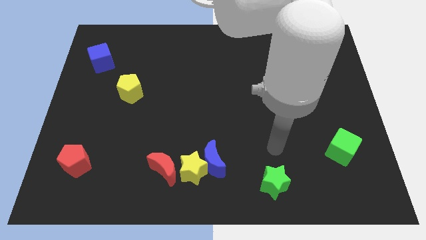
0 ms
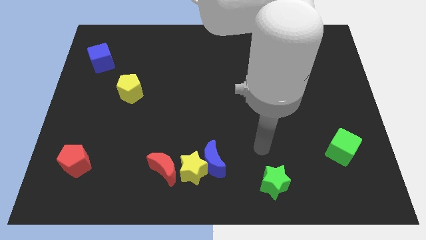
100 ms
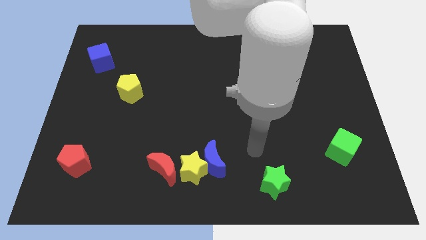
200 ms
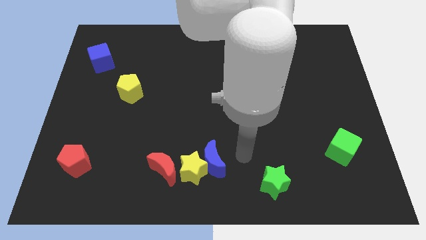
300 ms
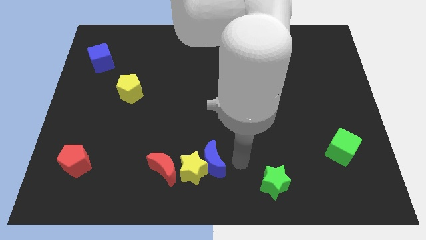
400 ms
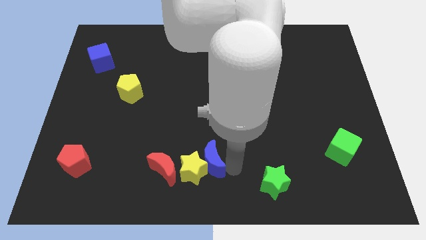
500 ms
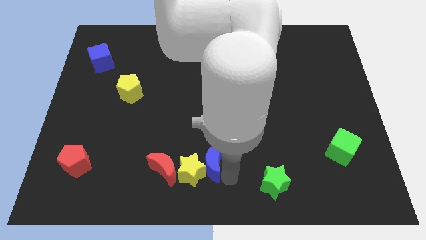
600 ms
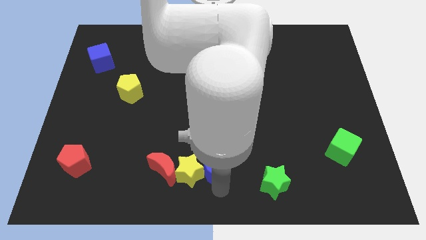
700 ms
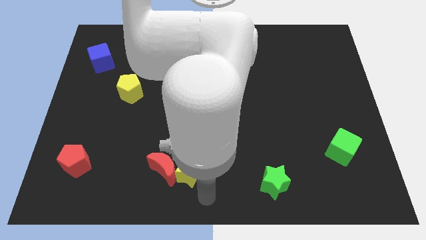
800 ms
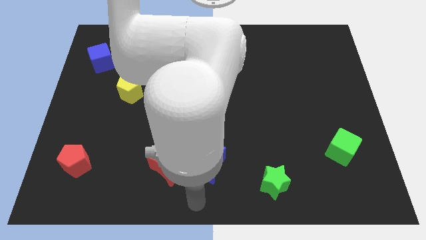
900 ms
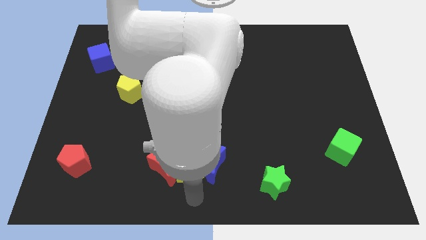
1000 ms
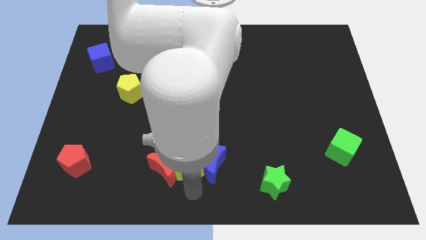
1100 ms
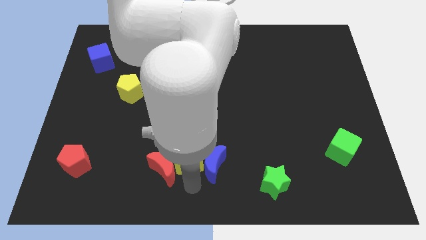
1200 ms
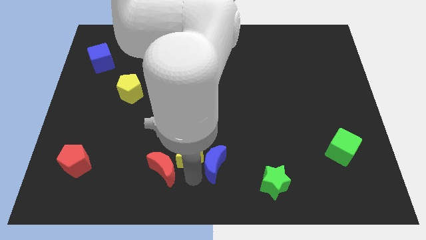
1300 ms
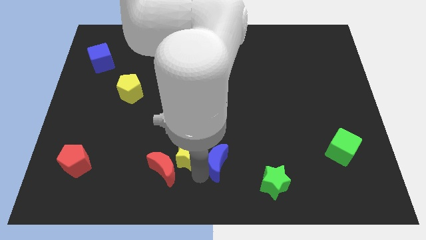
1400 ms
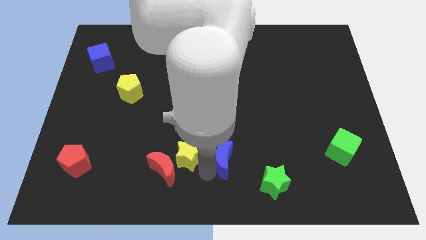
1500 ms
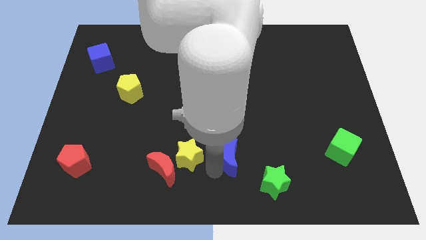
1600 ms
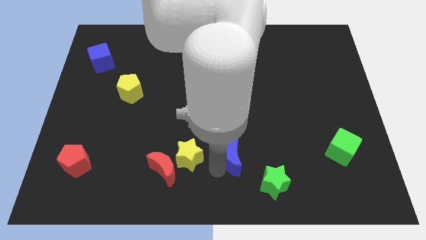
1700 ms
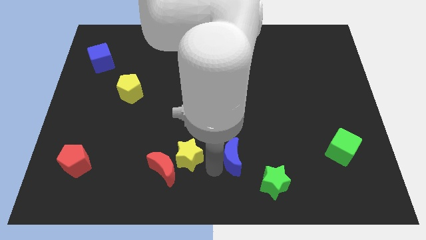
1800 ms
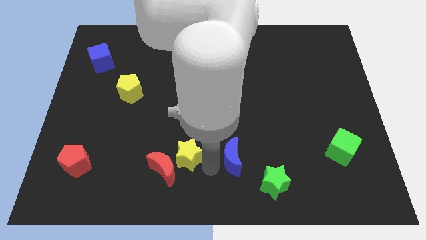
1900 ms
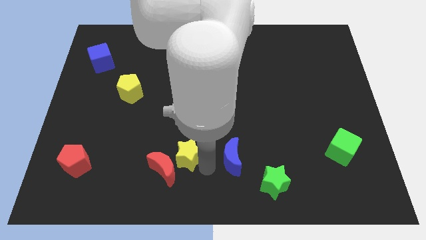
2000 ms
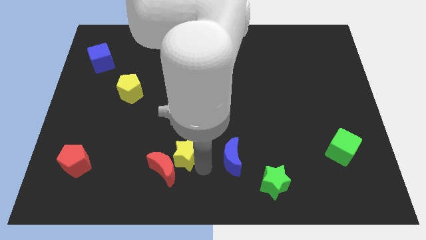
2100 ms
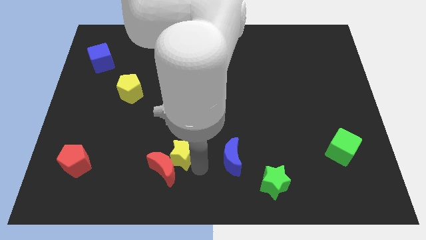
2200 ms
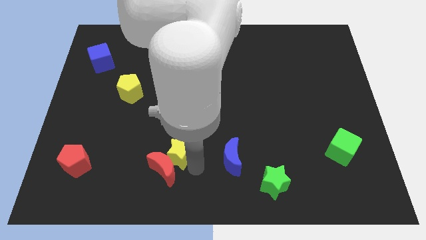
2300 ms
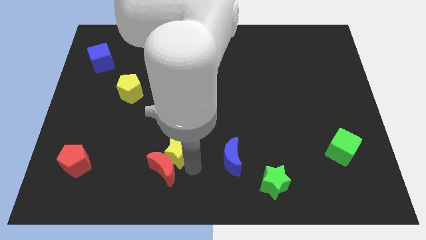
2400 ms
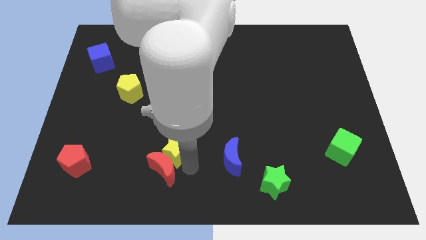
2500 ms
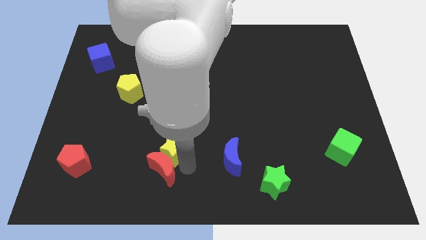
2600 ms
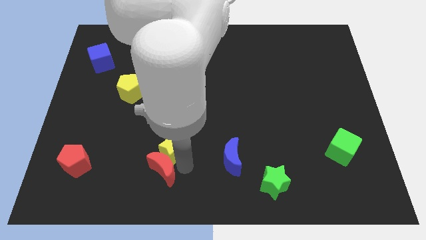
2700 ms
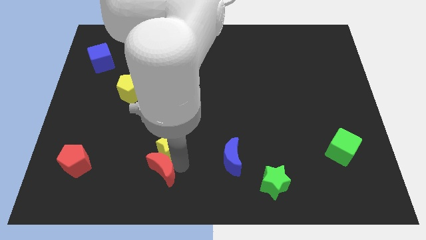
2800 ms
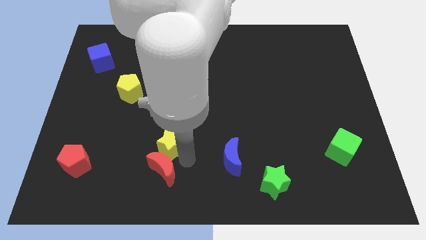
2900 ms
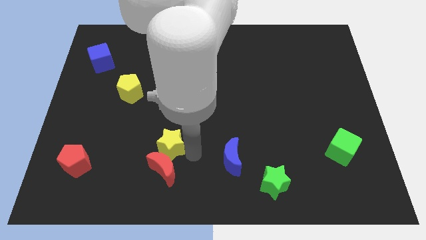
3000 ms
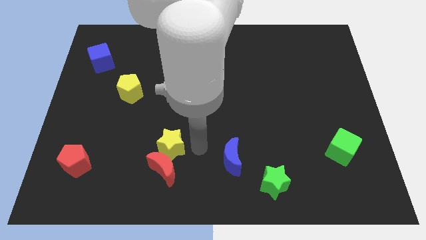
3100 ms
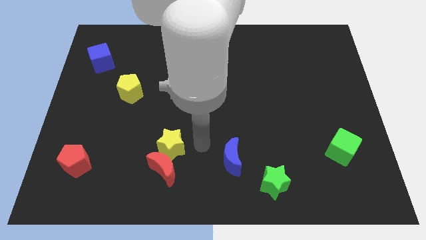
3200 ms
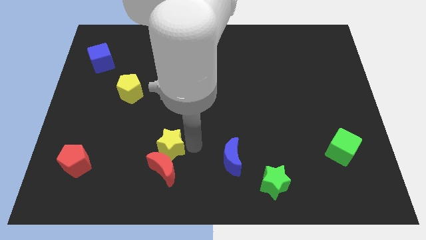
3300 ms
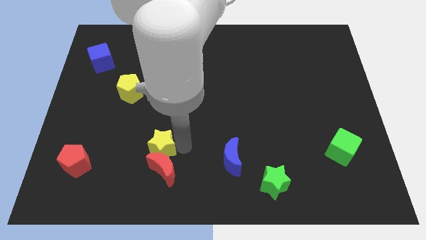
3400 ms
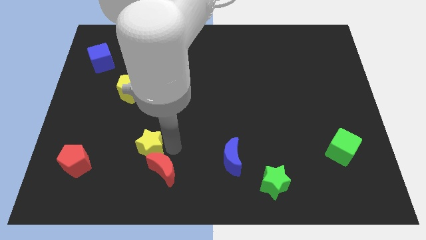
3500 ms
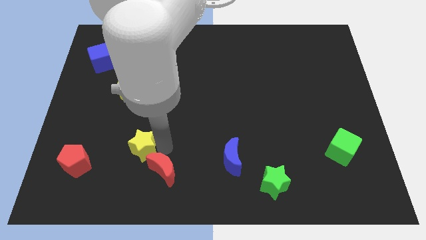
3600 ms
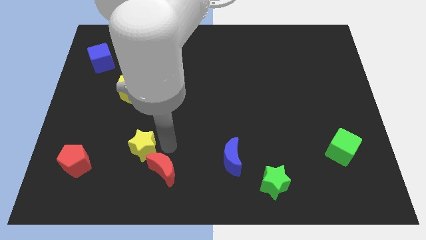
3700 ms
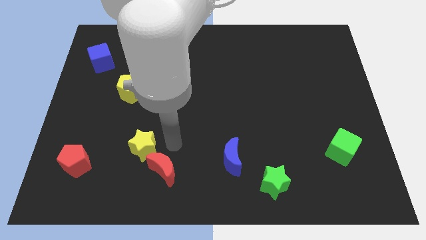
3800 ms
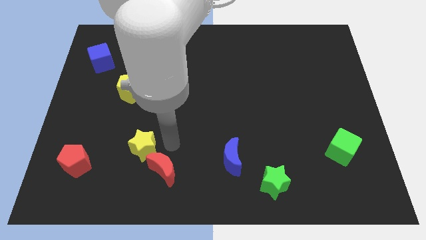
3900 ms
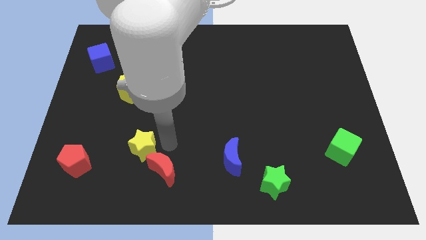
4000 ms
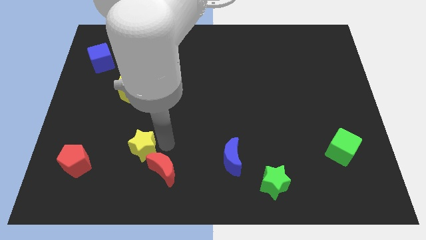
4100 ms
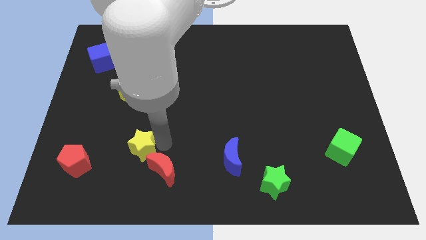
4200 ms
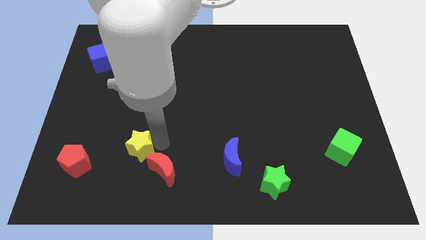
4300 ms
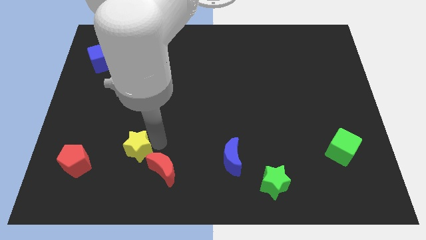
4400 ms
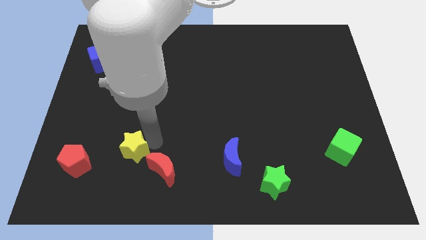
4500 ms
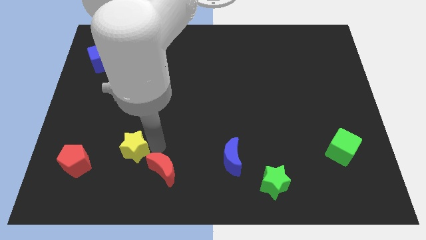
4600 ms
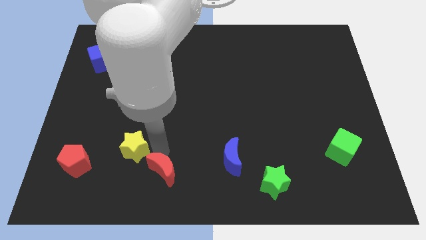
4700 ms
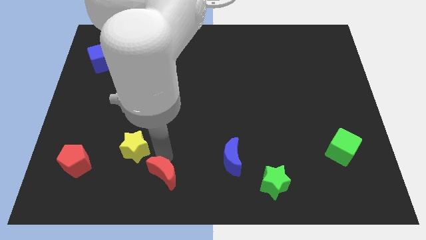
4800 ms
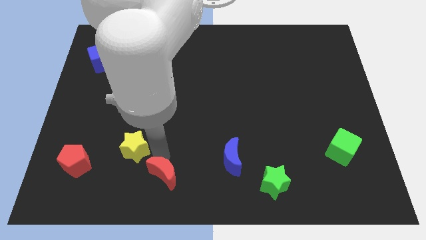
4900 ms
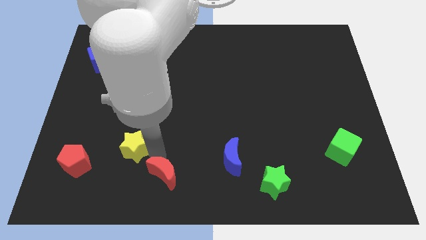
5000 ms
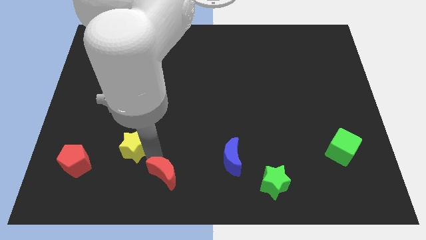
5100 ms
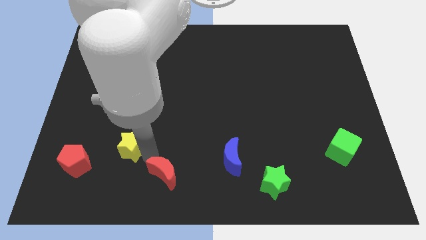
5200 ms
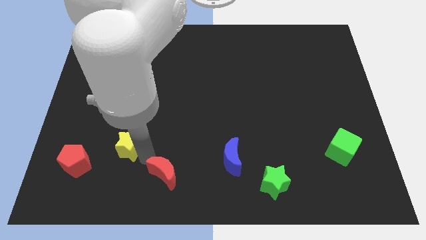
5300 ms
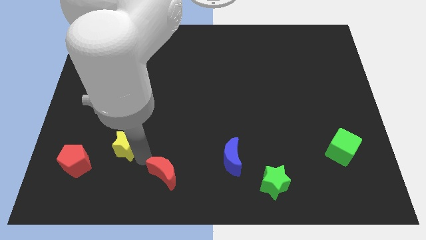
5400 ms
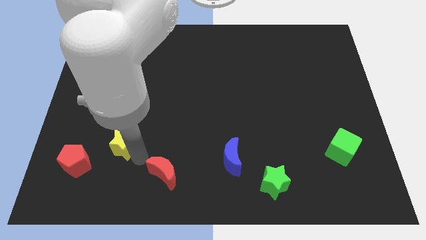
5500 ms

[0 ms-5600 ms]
push the yellow star to the top right of the red pentagon

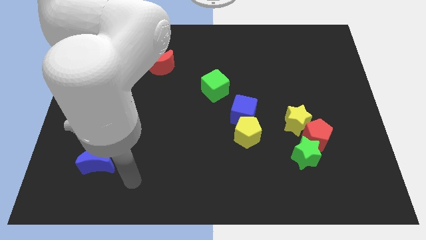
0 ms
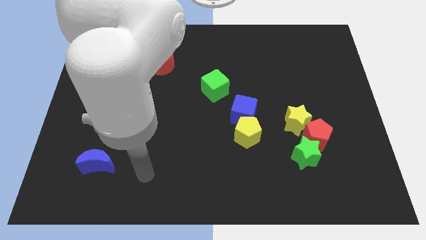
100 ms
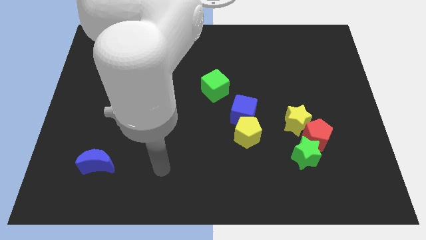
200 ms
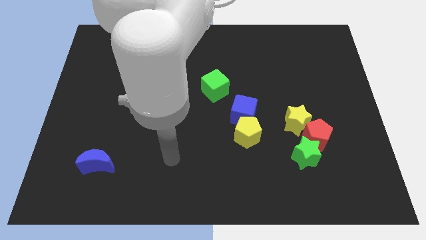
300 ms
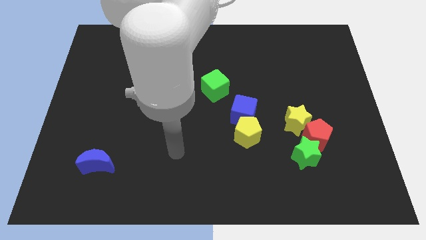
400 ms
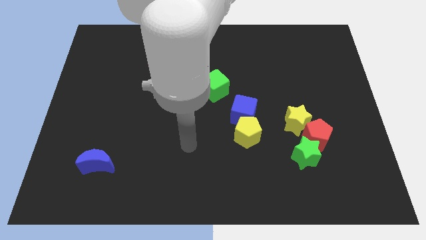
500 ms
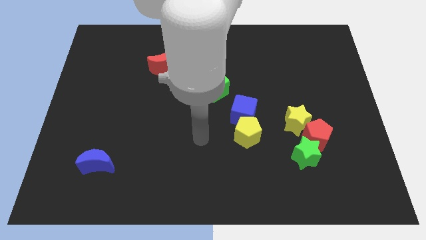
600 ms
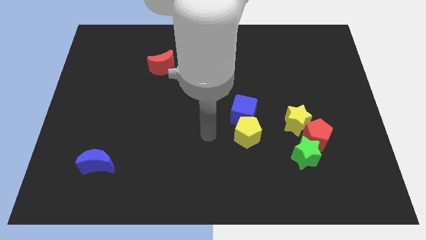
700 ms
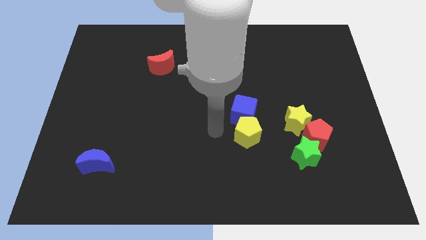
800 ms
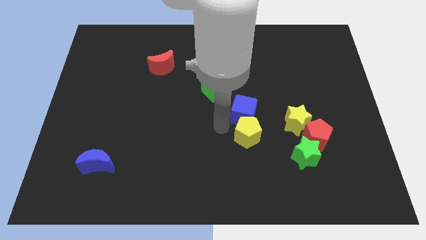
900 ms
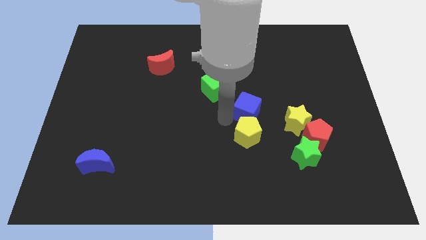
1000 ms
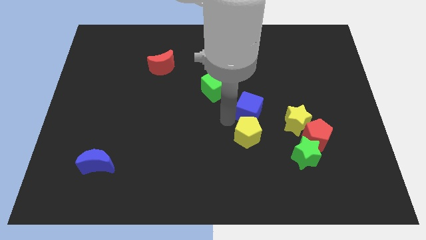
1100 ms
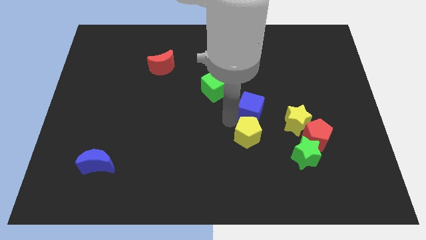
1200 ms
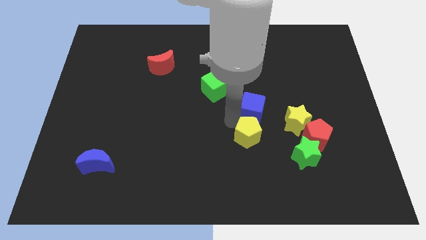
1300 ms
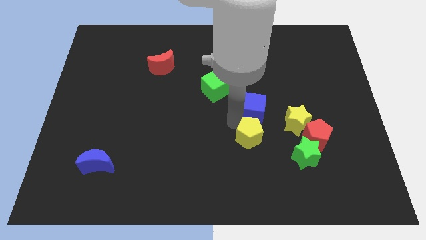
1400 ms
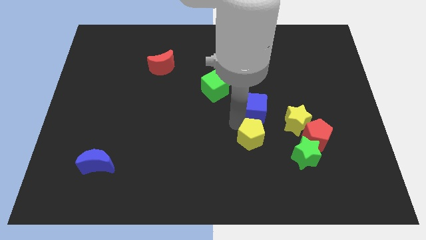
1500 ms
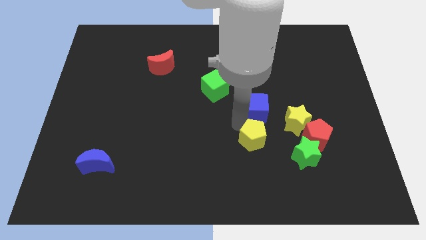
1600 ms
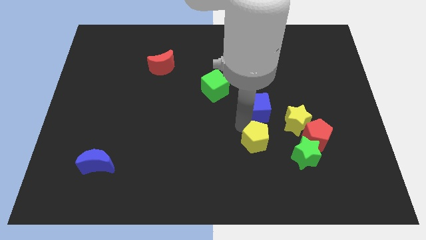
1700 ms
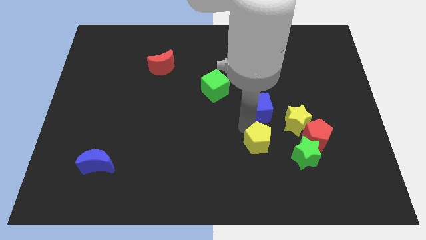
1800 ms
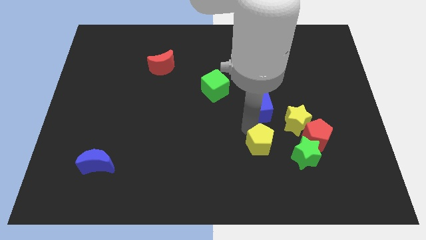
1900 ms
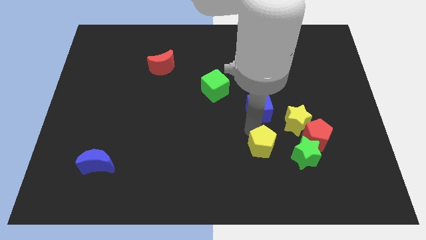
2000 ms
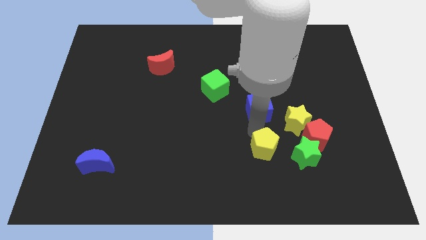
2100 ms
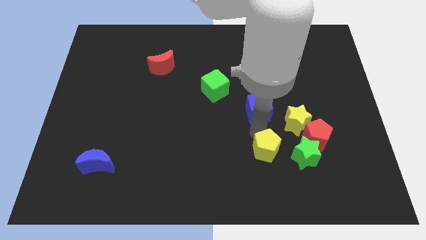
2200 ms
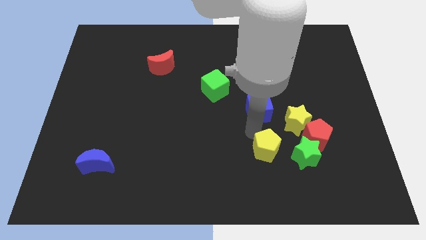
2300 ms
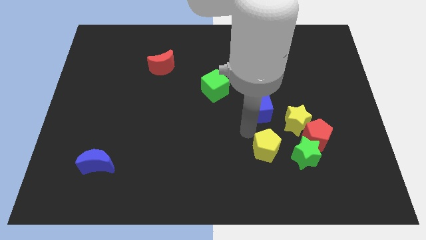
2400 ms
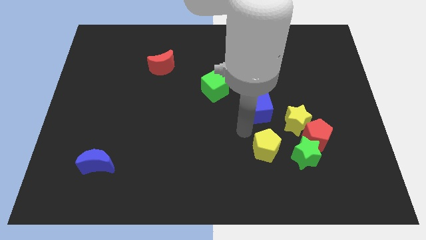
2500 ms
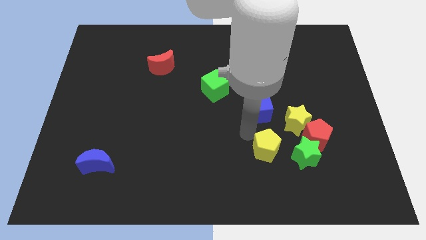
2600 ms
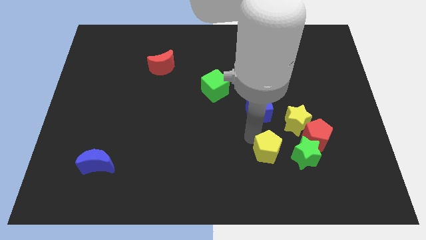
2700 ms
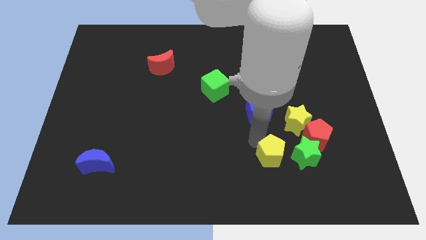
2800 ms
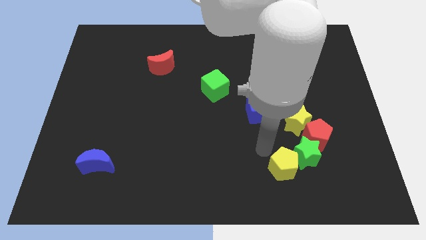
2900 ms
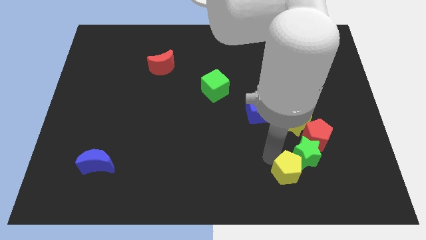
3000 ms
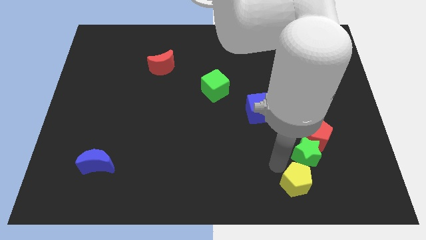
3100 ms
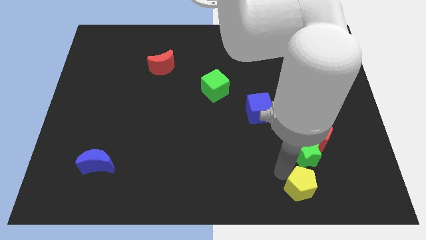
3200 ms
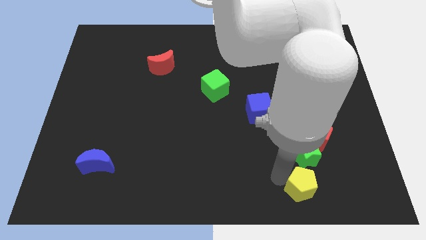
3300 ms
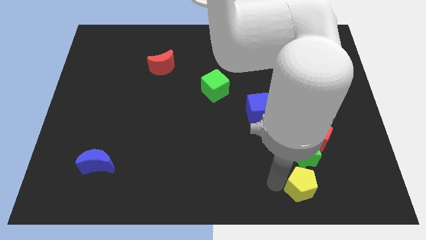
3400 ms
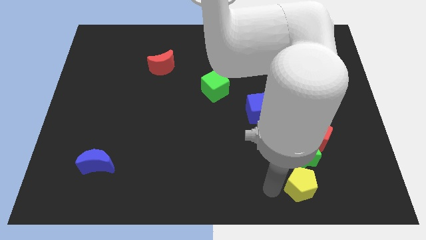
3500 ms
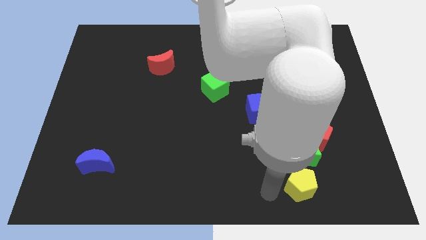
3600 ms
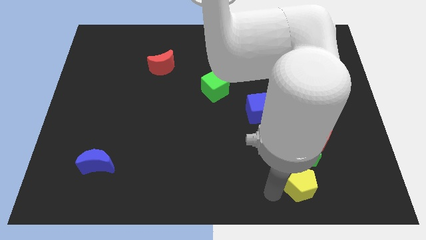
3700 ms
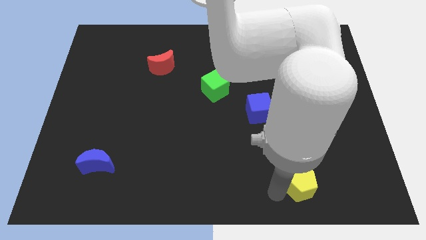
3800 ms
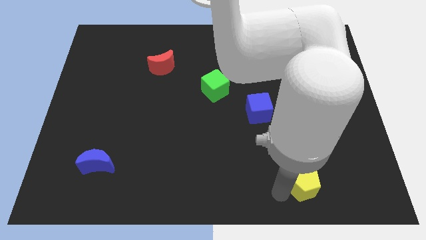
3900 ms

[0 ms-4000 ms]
move the yellow pentagon to the bottom side of the red pentagon
